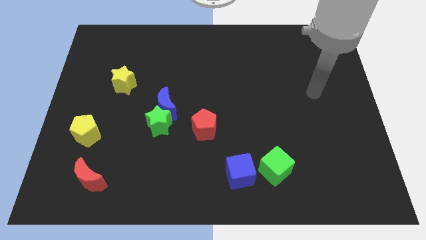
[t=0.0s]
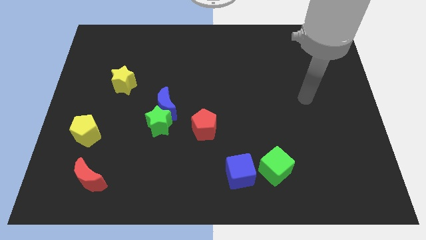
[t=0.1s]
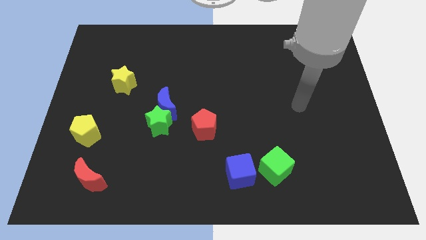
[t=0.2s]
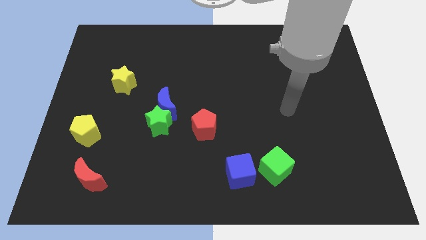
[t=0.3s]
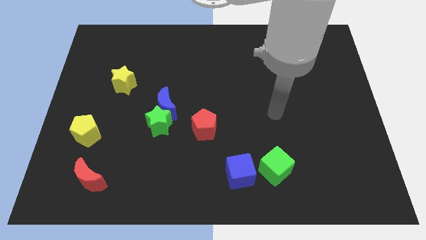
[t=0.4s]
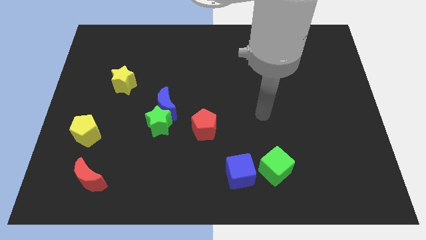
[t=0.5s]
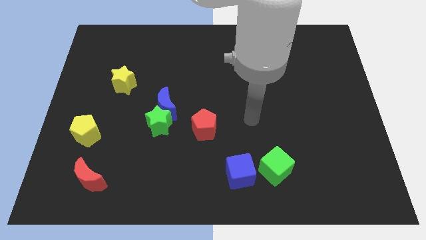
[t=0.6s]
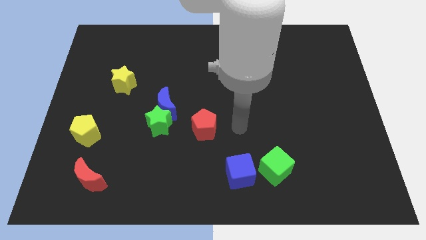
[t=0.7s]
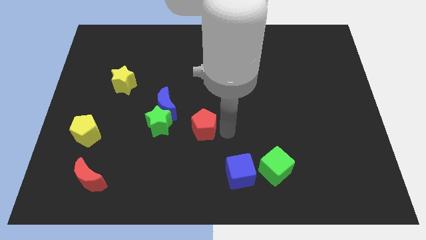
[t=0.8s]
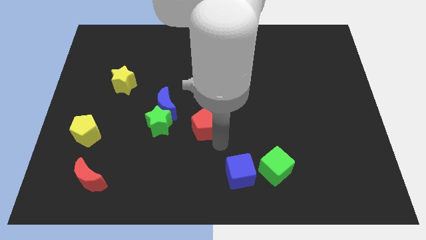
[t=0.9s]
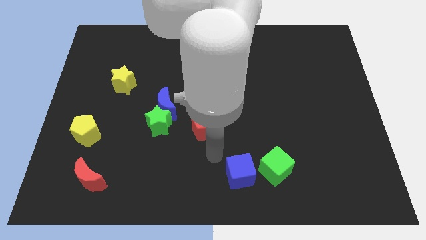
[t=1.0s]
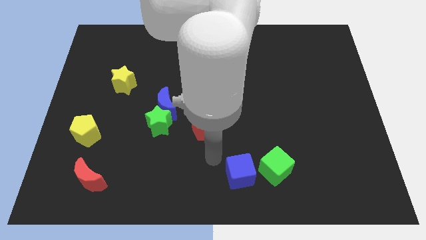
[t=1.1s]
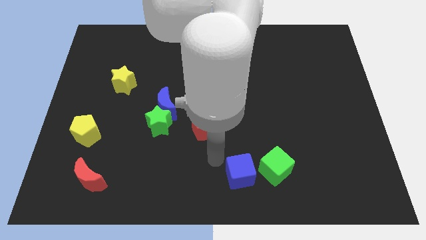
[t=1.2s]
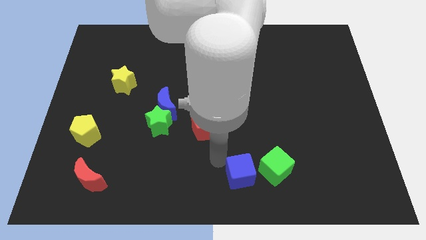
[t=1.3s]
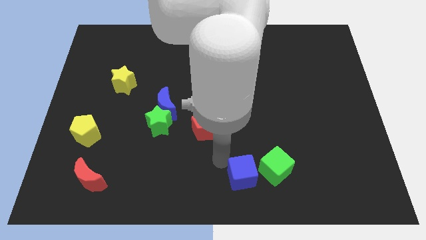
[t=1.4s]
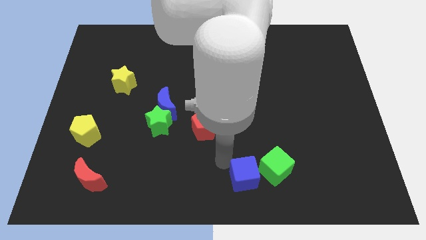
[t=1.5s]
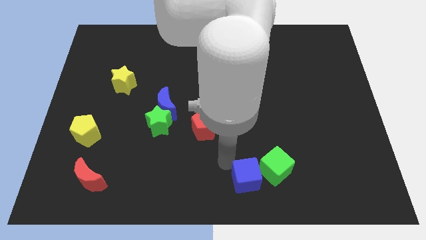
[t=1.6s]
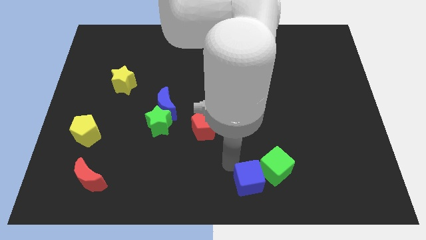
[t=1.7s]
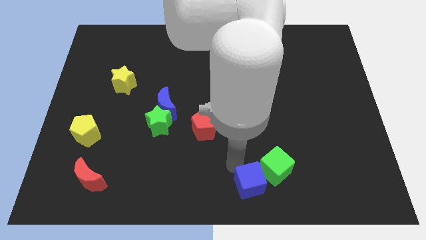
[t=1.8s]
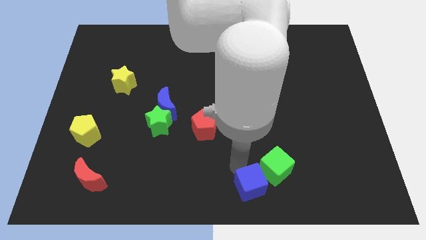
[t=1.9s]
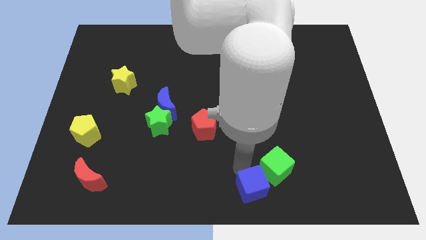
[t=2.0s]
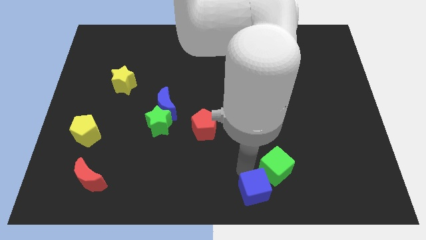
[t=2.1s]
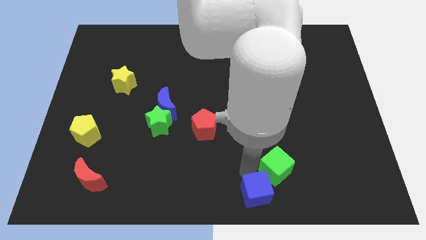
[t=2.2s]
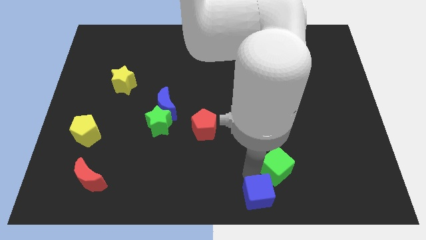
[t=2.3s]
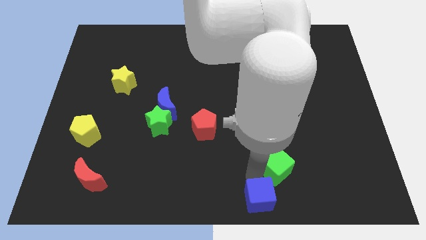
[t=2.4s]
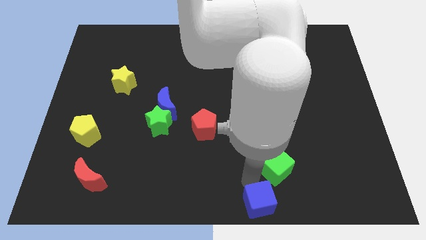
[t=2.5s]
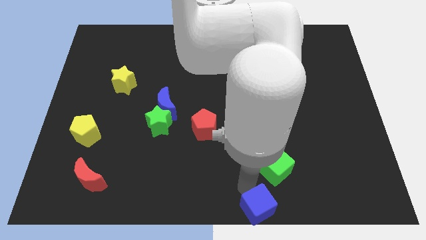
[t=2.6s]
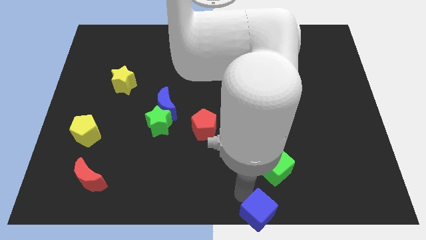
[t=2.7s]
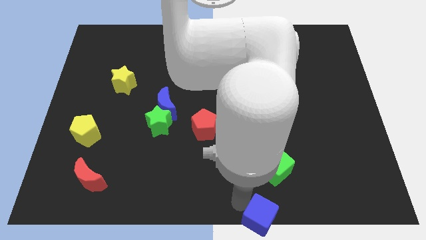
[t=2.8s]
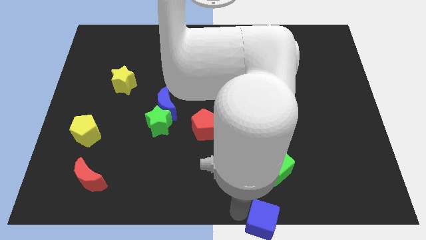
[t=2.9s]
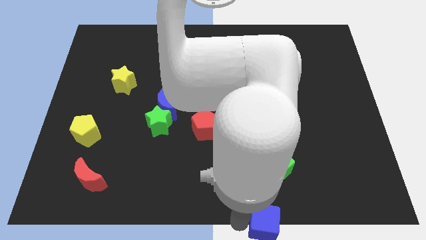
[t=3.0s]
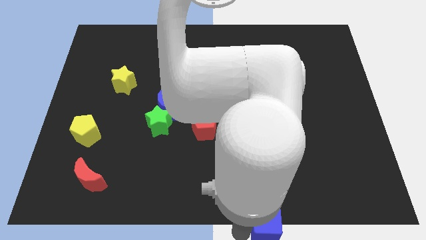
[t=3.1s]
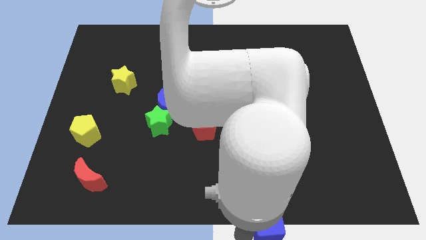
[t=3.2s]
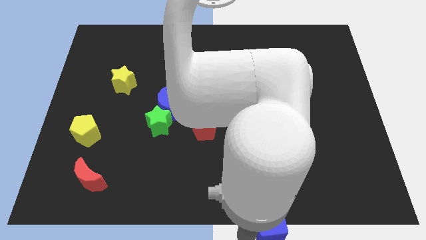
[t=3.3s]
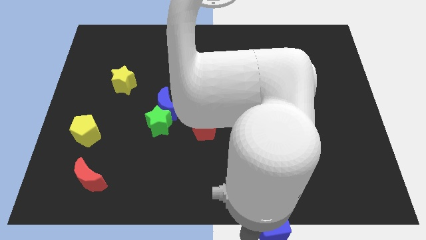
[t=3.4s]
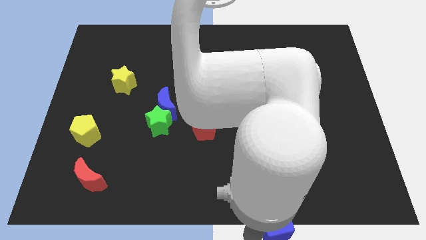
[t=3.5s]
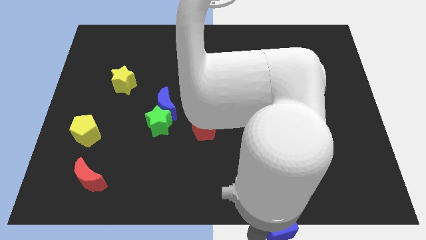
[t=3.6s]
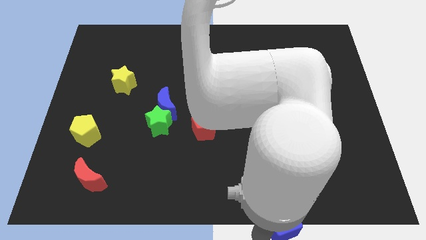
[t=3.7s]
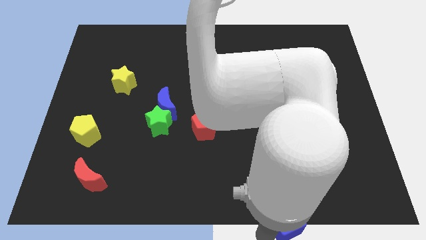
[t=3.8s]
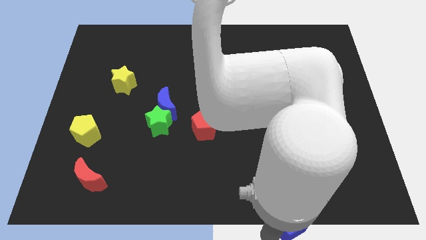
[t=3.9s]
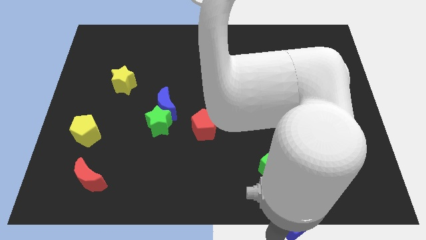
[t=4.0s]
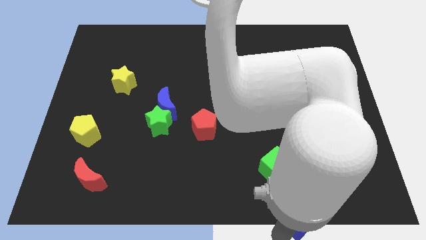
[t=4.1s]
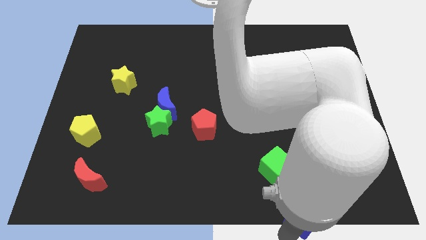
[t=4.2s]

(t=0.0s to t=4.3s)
move the blue cube to the right a bit

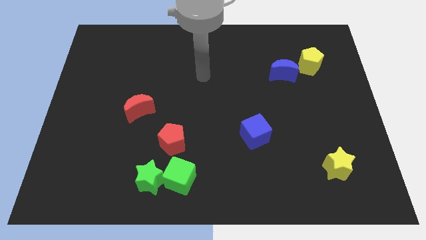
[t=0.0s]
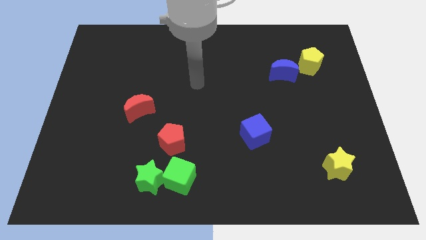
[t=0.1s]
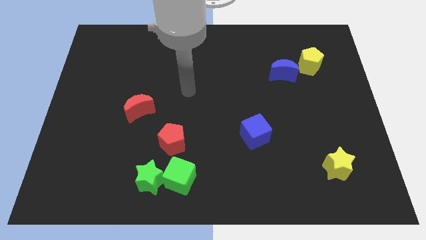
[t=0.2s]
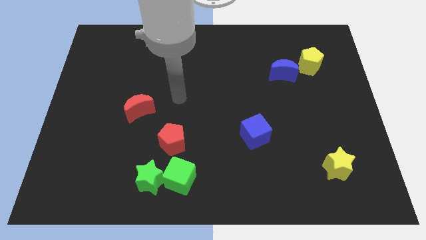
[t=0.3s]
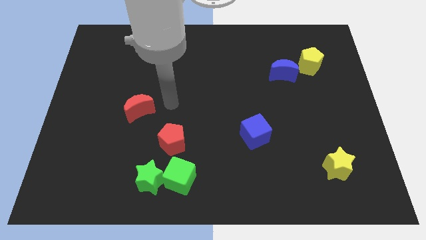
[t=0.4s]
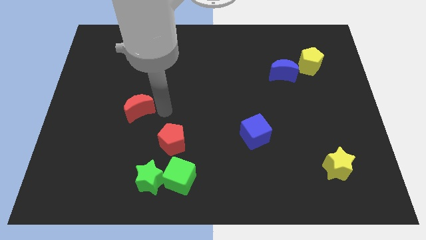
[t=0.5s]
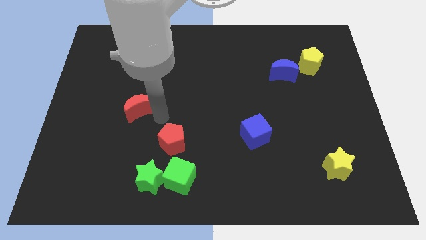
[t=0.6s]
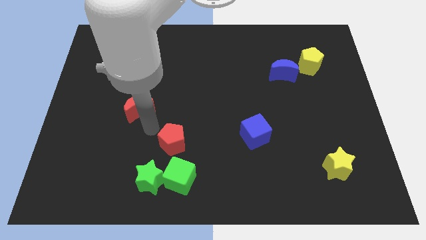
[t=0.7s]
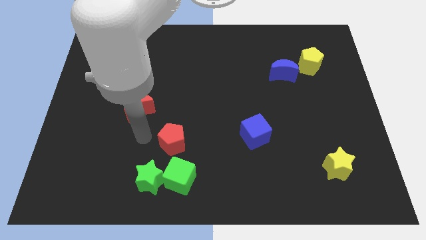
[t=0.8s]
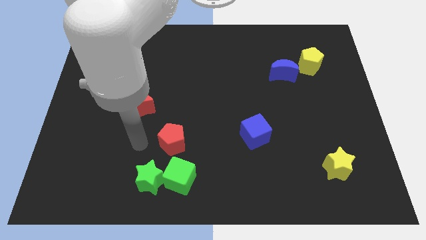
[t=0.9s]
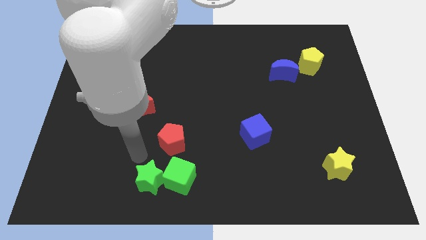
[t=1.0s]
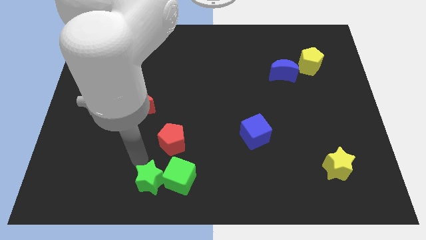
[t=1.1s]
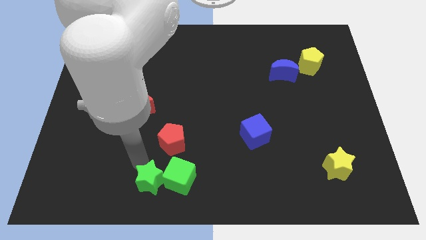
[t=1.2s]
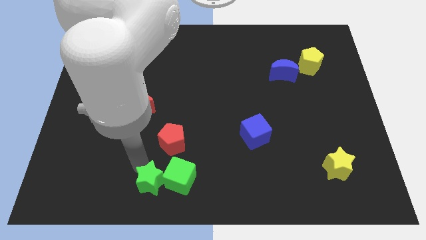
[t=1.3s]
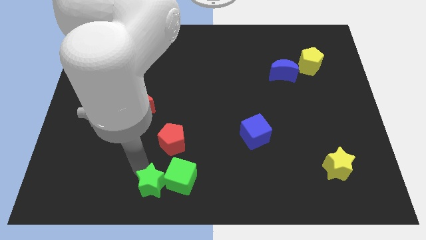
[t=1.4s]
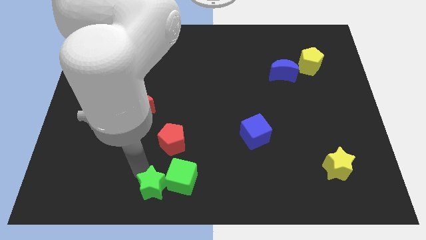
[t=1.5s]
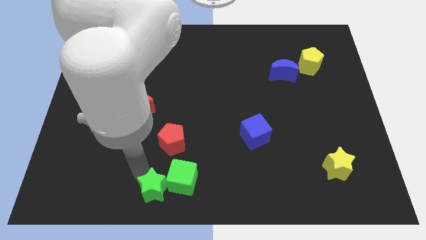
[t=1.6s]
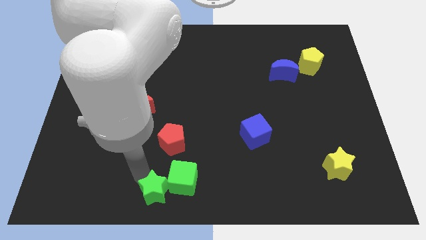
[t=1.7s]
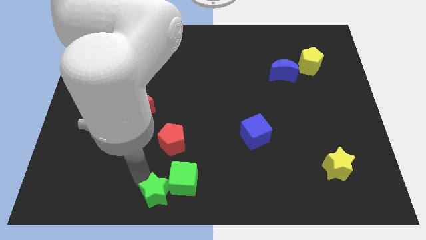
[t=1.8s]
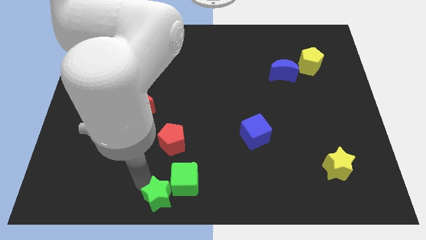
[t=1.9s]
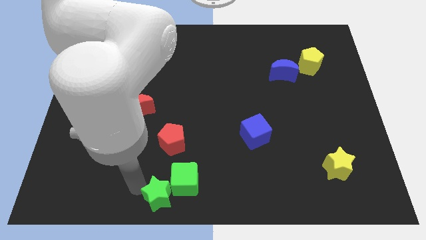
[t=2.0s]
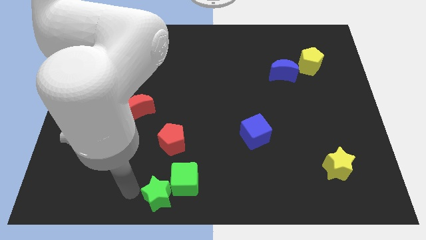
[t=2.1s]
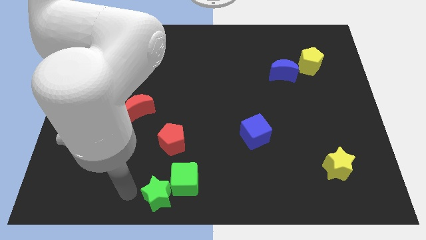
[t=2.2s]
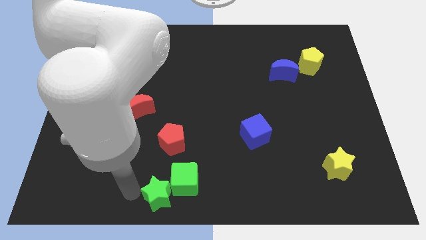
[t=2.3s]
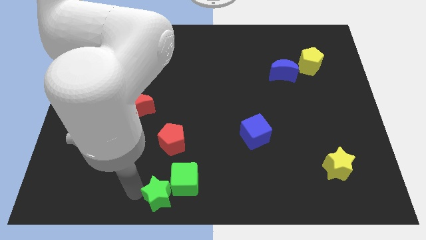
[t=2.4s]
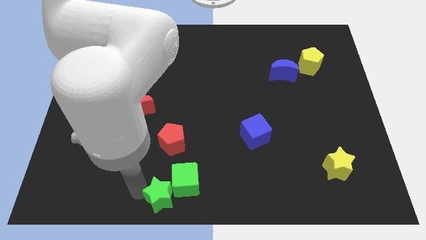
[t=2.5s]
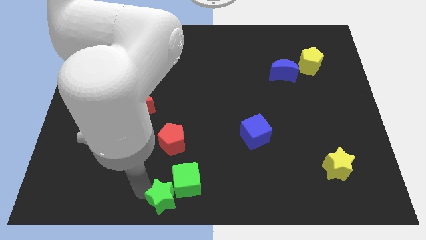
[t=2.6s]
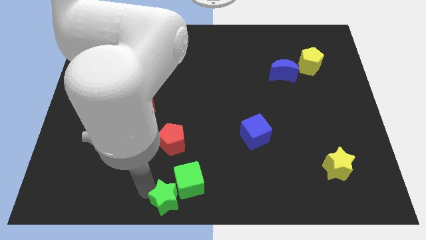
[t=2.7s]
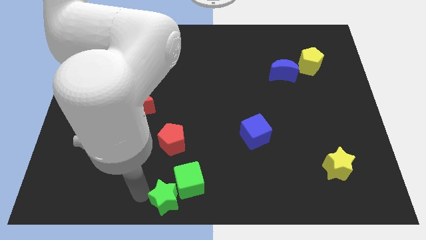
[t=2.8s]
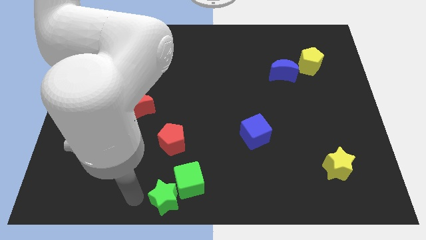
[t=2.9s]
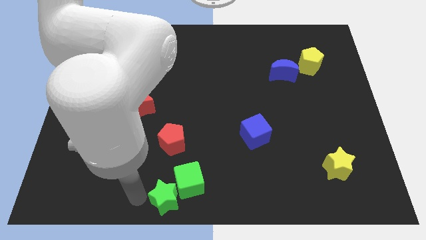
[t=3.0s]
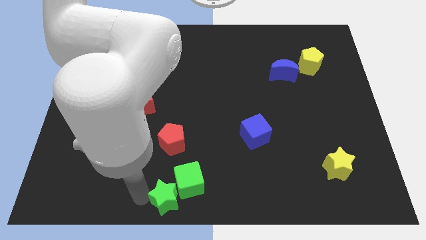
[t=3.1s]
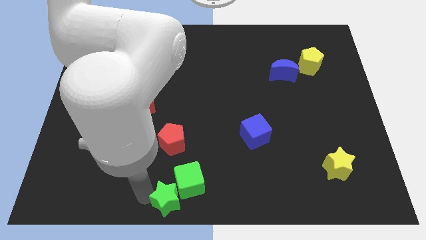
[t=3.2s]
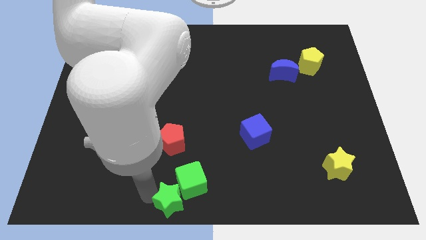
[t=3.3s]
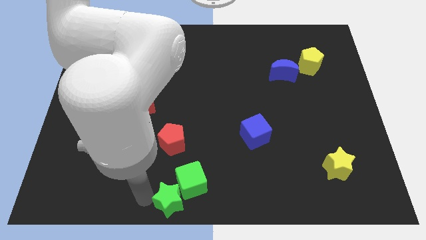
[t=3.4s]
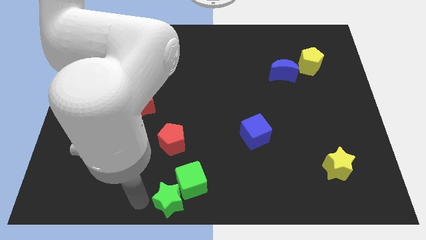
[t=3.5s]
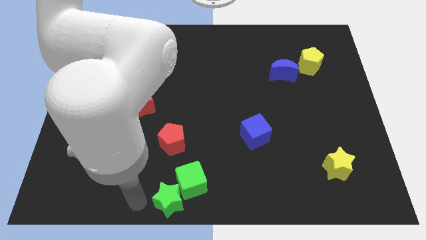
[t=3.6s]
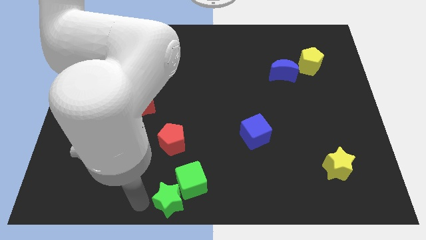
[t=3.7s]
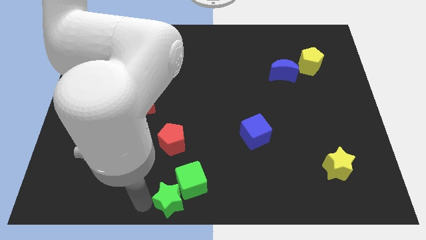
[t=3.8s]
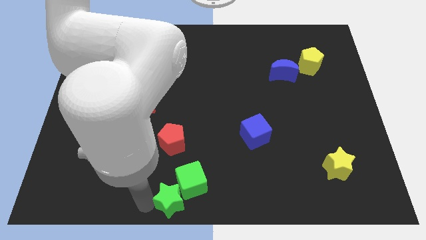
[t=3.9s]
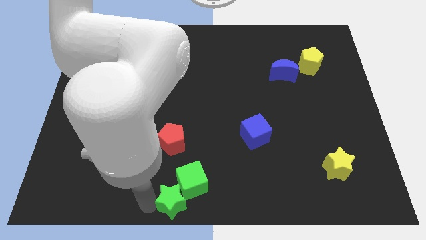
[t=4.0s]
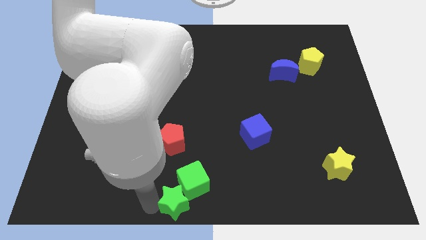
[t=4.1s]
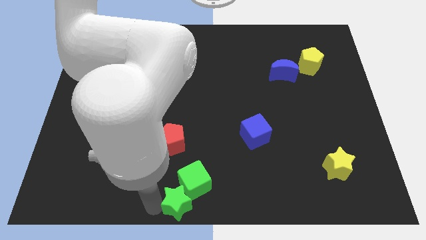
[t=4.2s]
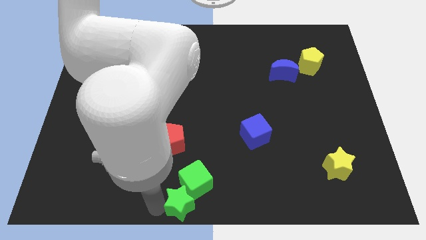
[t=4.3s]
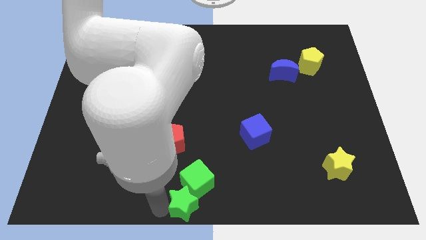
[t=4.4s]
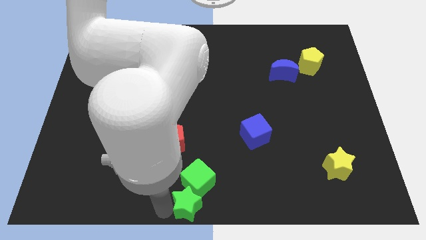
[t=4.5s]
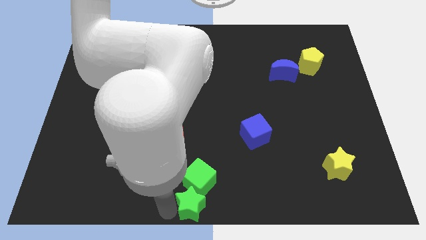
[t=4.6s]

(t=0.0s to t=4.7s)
slightly move the green star right
